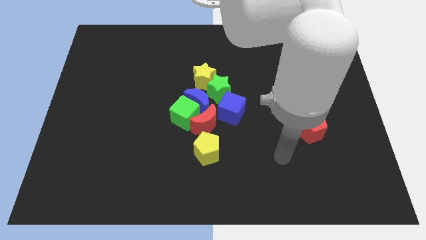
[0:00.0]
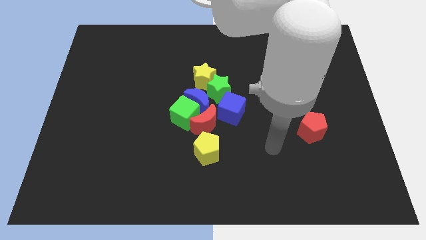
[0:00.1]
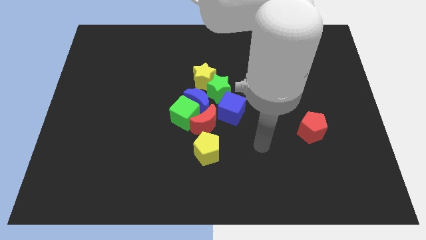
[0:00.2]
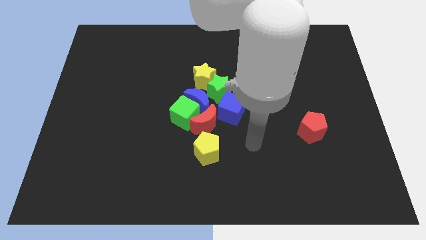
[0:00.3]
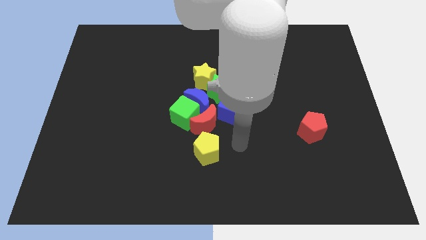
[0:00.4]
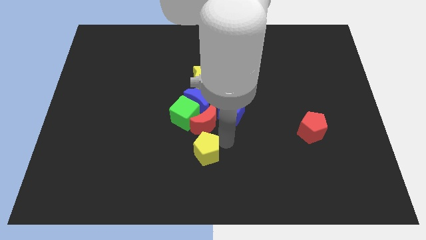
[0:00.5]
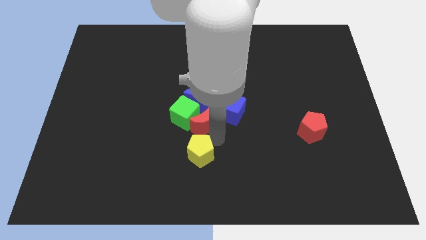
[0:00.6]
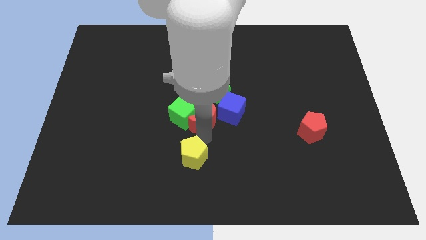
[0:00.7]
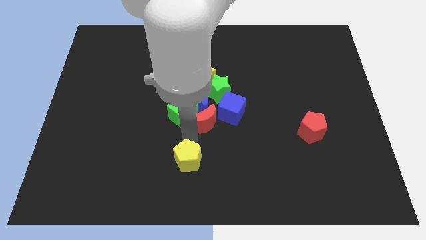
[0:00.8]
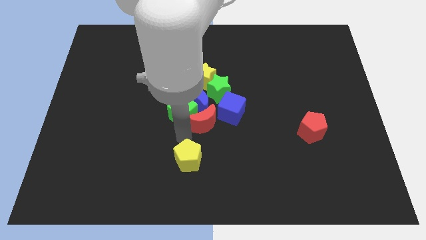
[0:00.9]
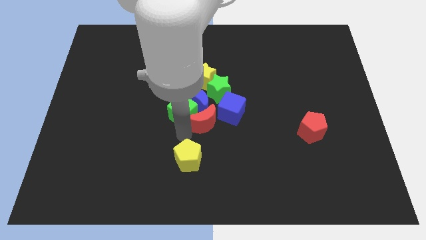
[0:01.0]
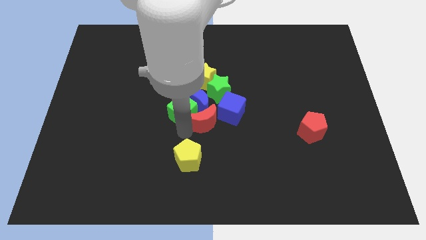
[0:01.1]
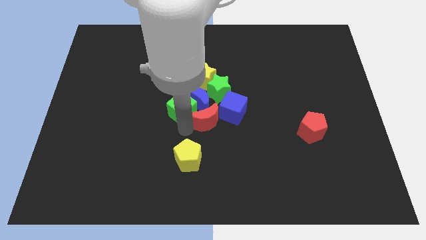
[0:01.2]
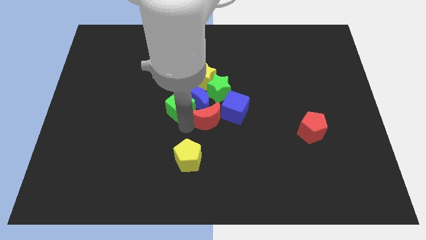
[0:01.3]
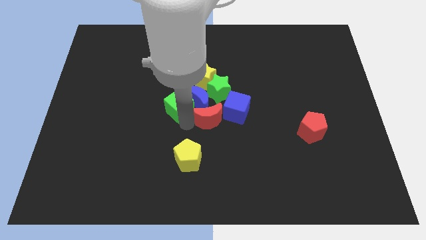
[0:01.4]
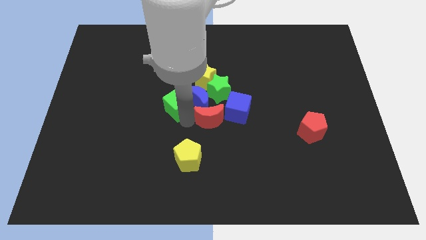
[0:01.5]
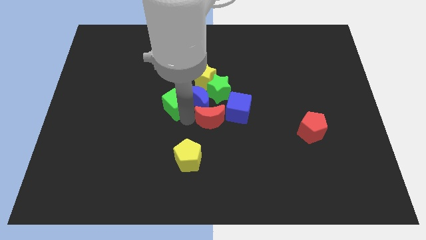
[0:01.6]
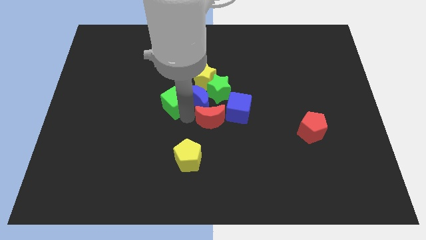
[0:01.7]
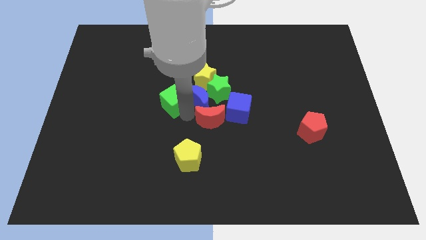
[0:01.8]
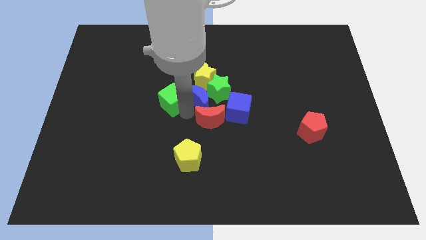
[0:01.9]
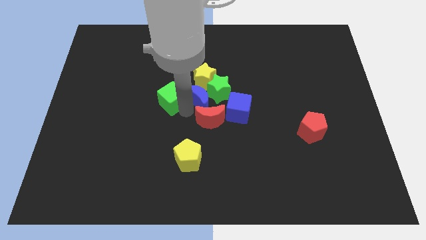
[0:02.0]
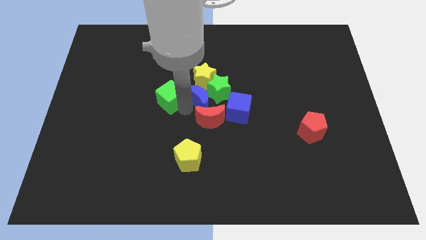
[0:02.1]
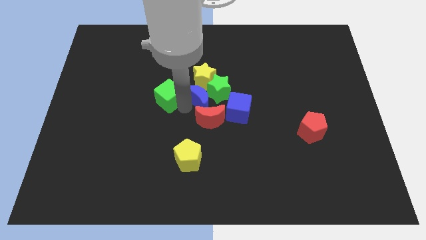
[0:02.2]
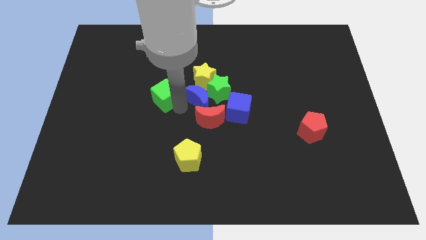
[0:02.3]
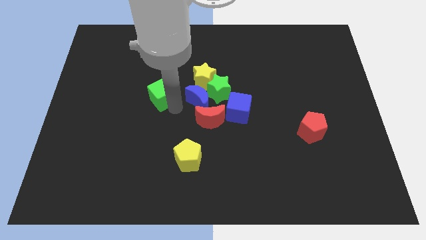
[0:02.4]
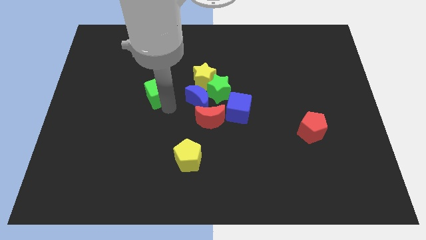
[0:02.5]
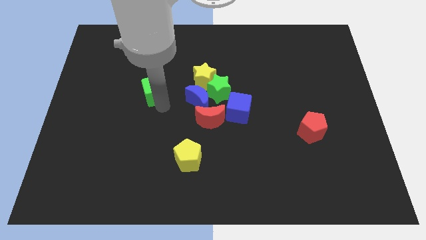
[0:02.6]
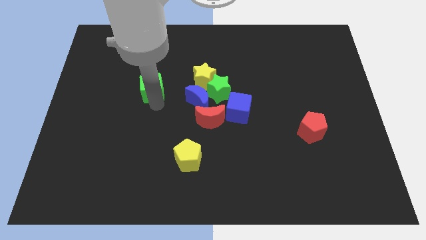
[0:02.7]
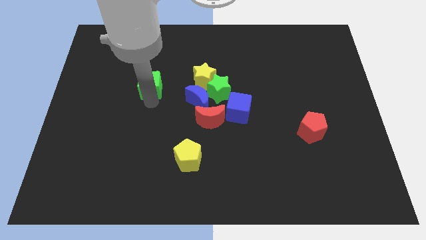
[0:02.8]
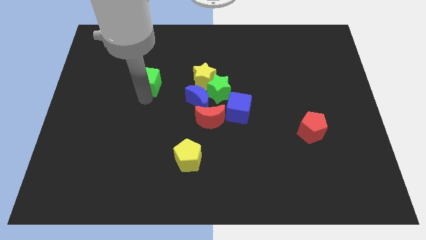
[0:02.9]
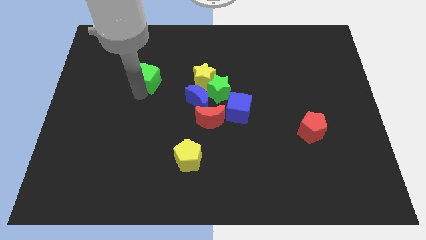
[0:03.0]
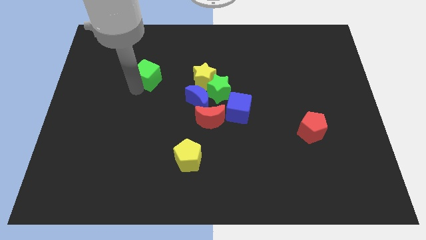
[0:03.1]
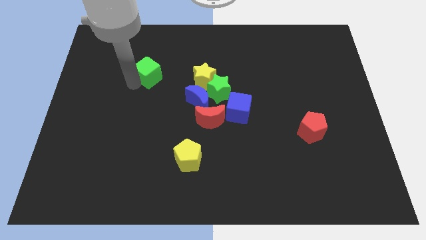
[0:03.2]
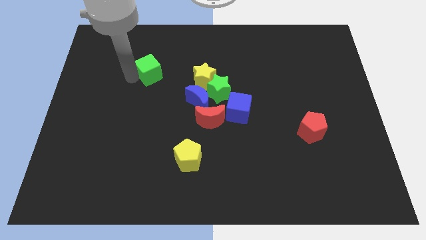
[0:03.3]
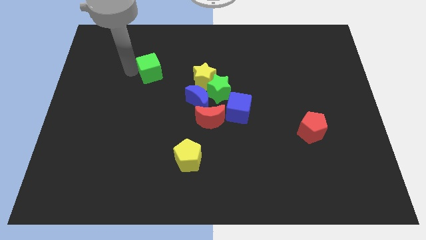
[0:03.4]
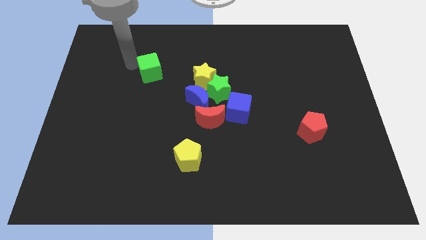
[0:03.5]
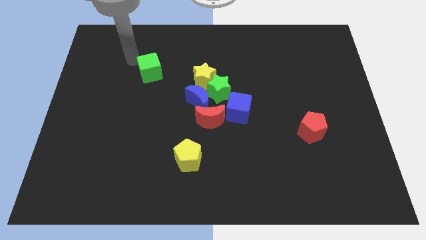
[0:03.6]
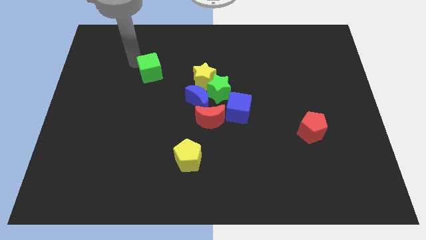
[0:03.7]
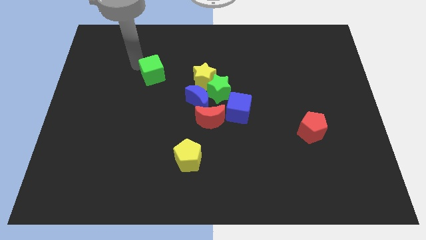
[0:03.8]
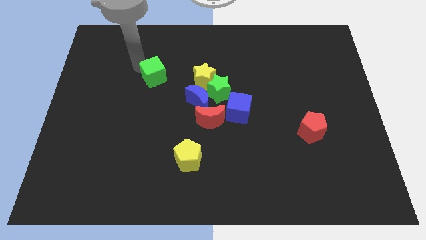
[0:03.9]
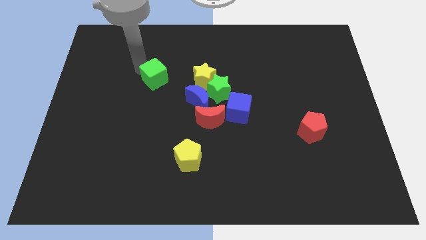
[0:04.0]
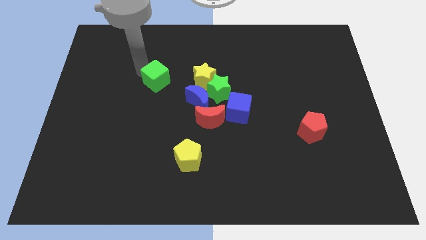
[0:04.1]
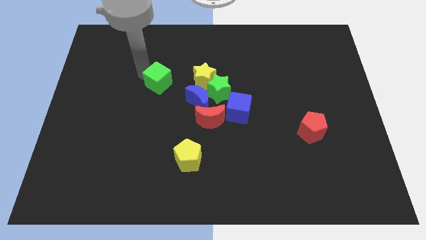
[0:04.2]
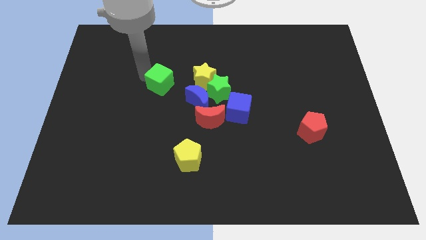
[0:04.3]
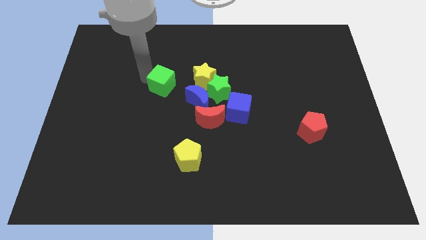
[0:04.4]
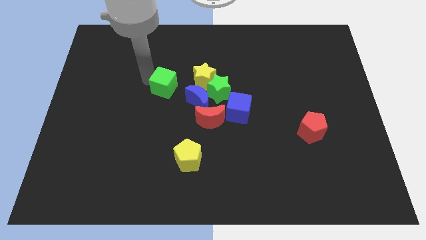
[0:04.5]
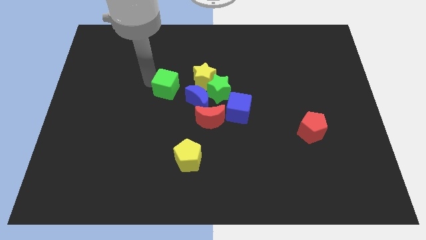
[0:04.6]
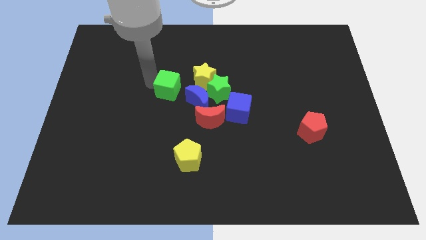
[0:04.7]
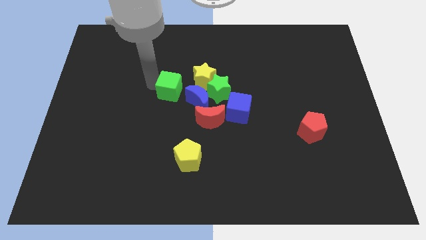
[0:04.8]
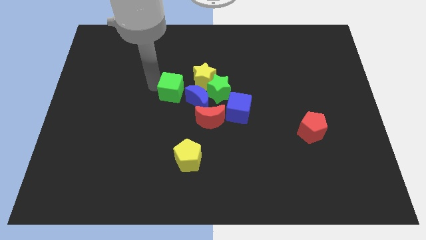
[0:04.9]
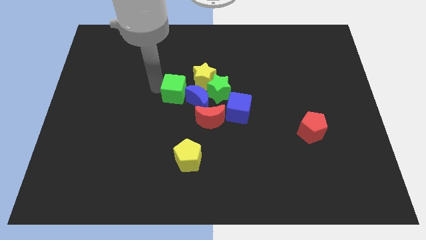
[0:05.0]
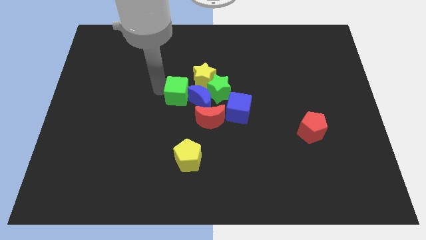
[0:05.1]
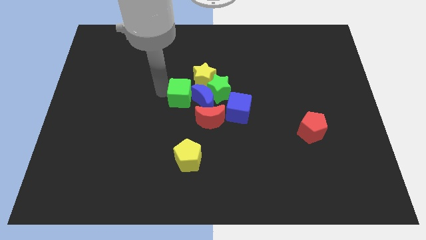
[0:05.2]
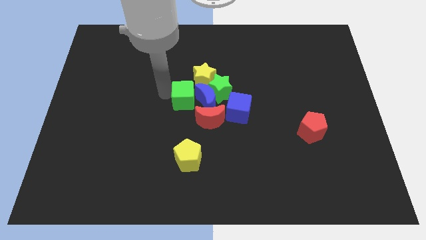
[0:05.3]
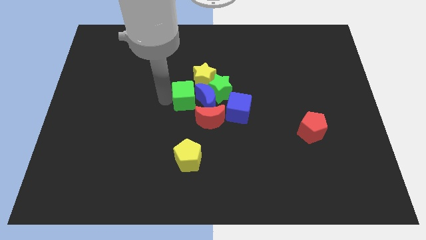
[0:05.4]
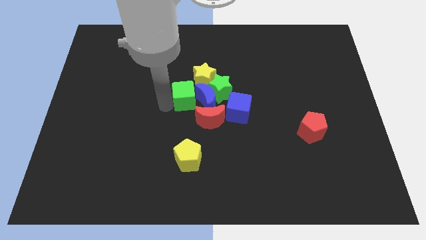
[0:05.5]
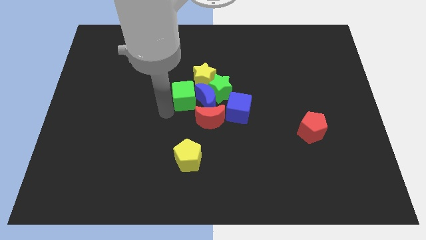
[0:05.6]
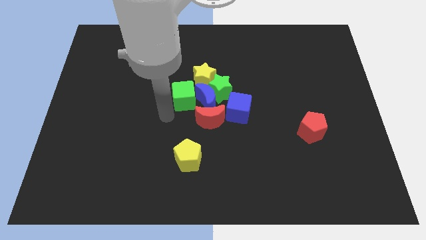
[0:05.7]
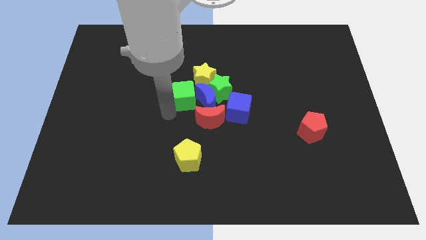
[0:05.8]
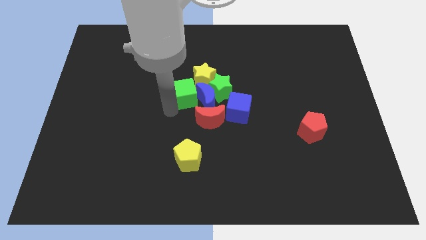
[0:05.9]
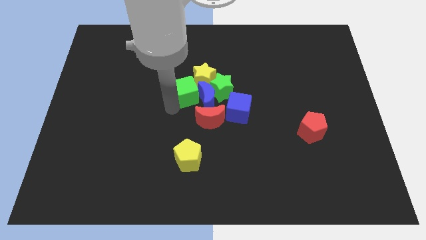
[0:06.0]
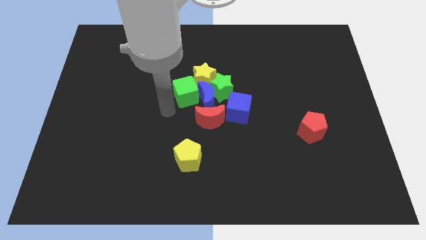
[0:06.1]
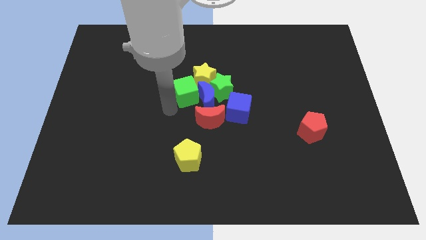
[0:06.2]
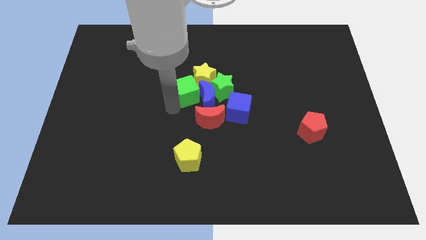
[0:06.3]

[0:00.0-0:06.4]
move the green cube close to the yellow star

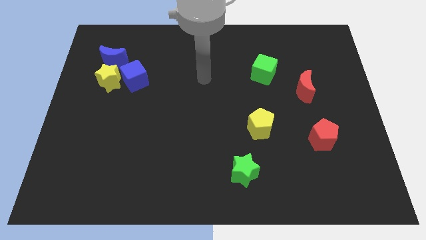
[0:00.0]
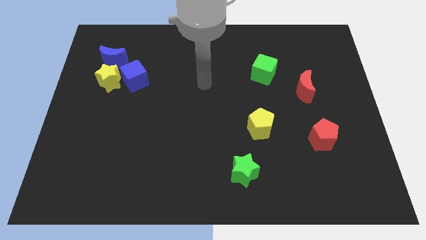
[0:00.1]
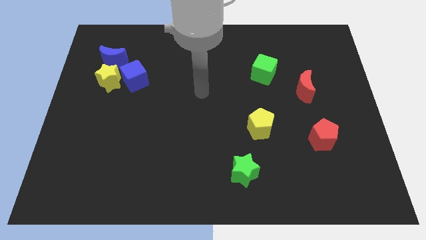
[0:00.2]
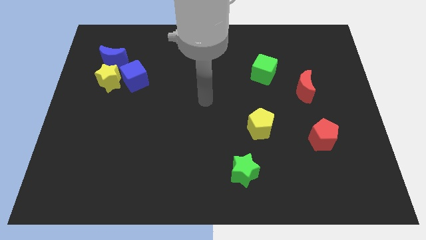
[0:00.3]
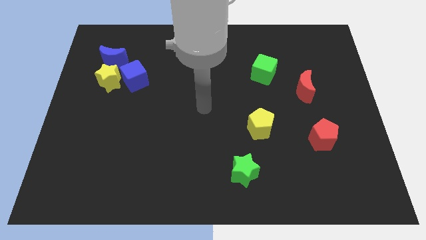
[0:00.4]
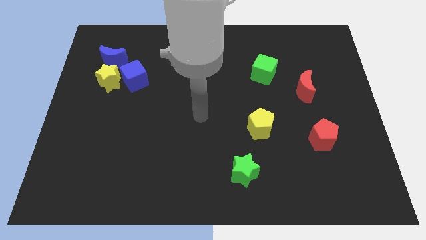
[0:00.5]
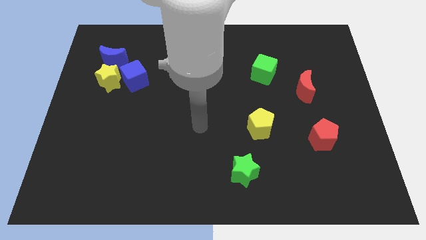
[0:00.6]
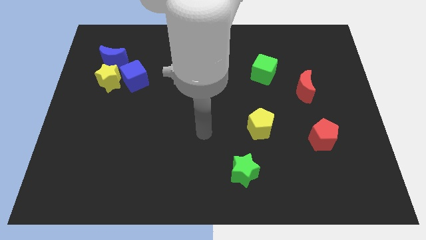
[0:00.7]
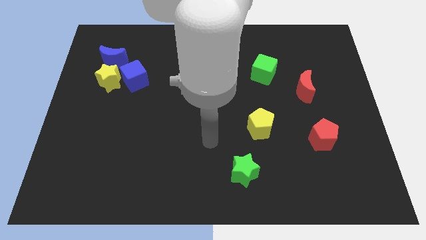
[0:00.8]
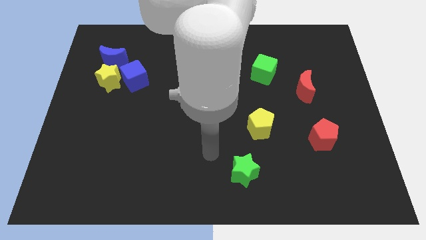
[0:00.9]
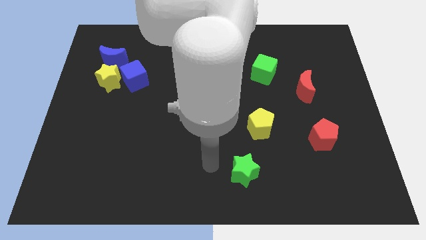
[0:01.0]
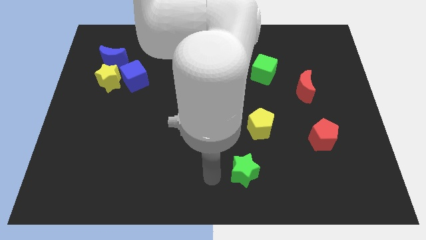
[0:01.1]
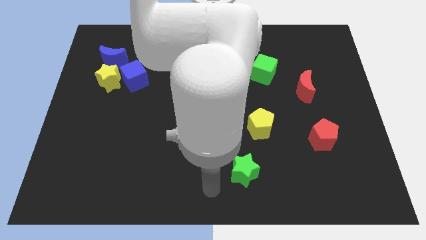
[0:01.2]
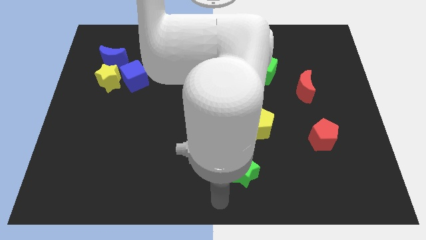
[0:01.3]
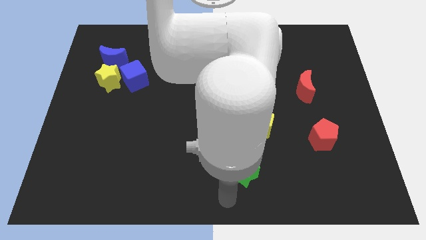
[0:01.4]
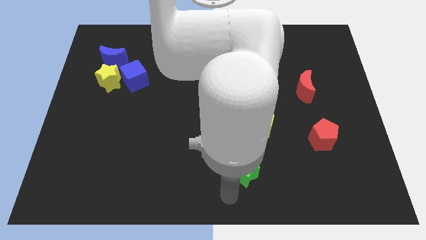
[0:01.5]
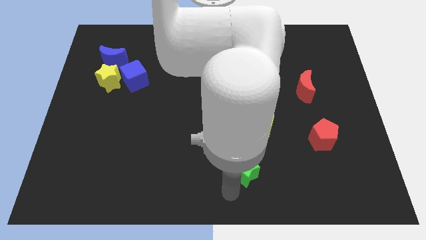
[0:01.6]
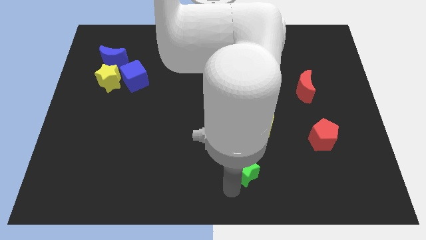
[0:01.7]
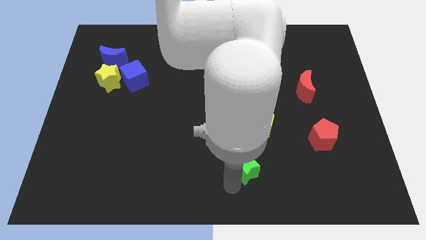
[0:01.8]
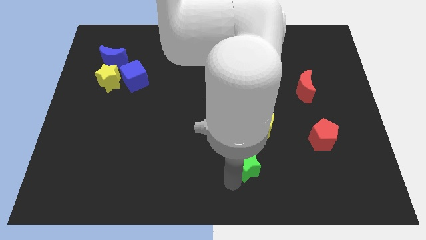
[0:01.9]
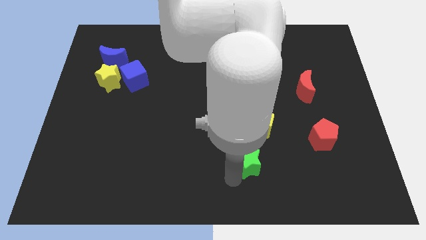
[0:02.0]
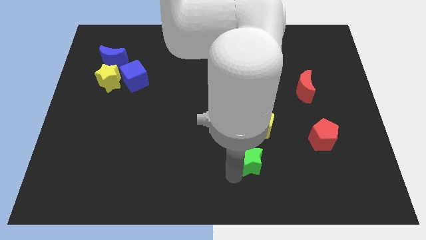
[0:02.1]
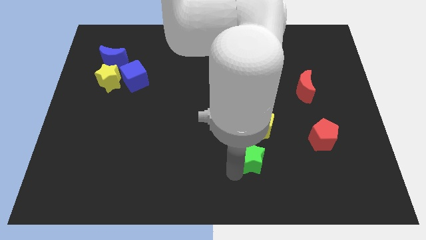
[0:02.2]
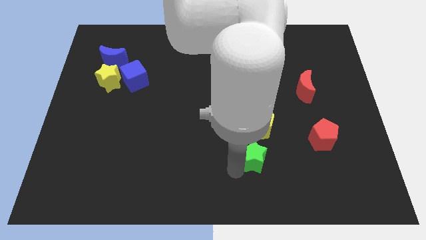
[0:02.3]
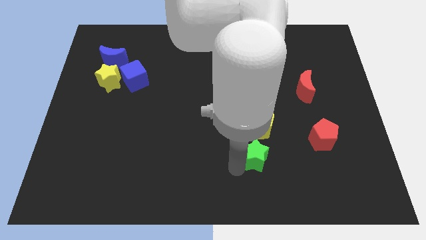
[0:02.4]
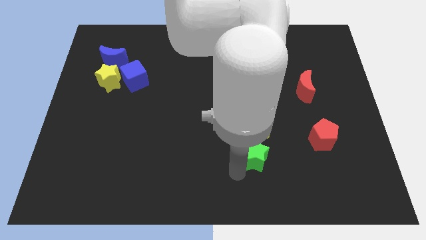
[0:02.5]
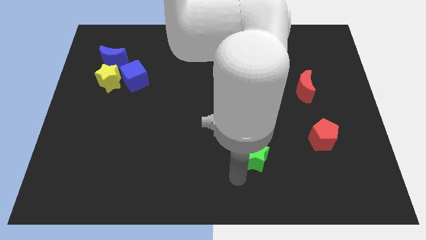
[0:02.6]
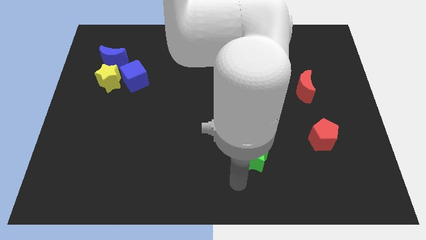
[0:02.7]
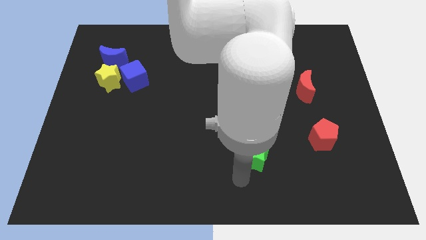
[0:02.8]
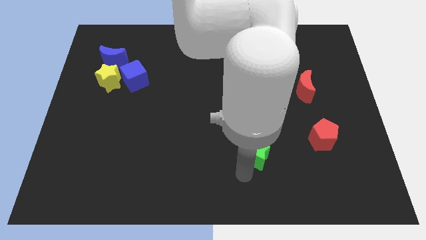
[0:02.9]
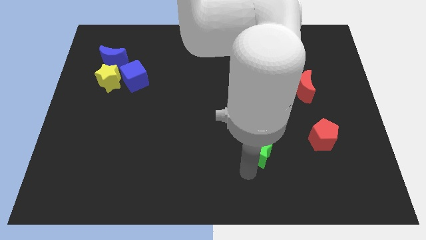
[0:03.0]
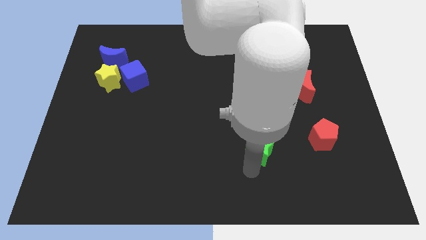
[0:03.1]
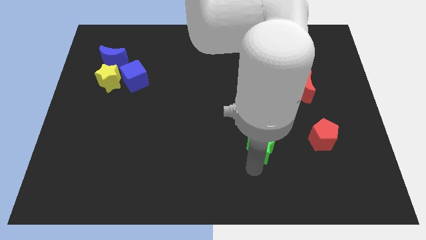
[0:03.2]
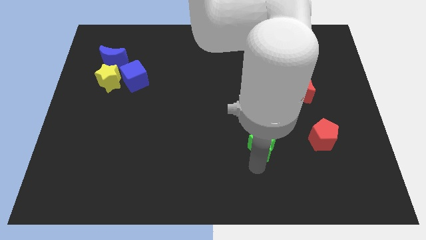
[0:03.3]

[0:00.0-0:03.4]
slide the green star towards the yellow pentagon
